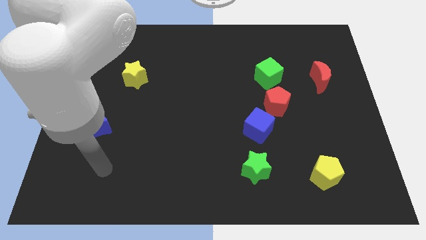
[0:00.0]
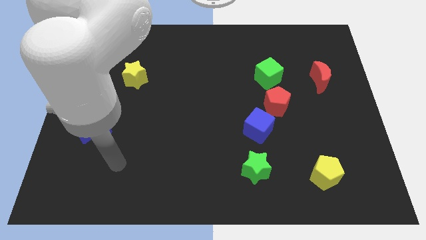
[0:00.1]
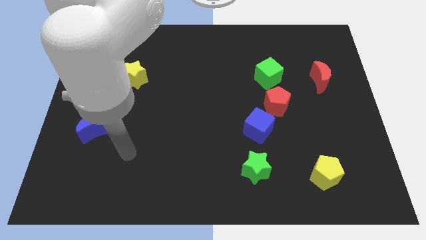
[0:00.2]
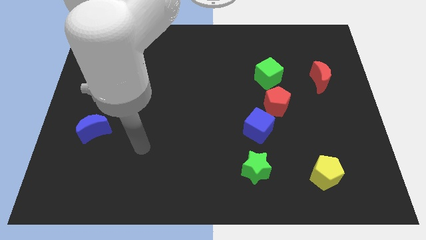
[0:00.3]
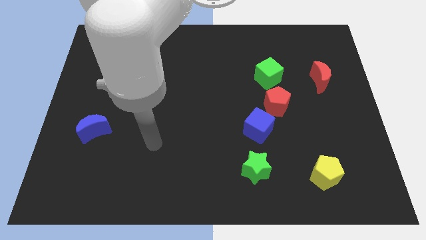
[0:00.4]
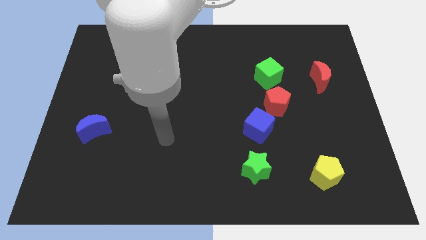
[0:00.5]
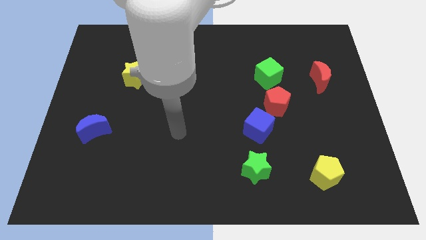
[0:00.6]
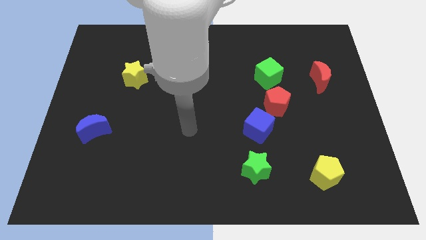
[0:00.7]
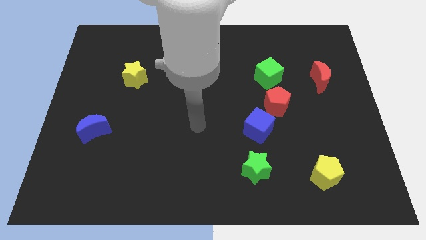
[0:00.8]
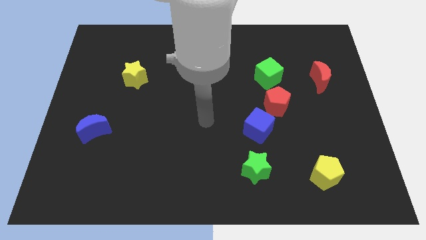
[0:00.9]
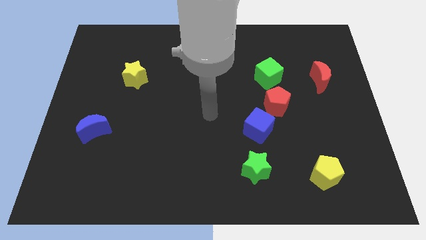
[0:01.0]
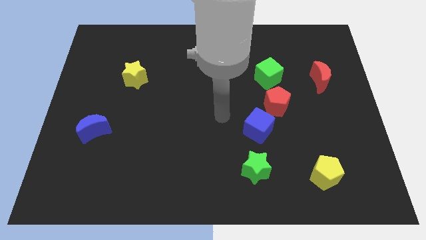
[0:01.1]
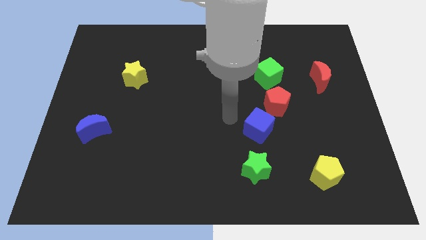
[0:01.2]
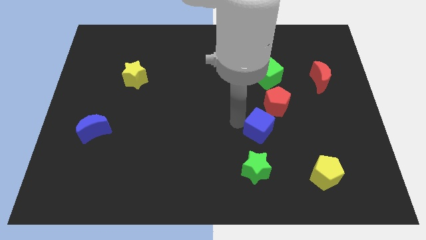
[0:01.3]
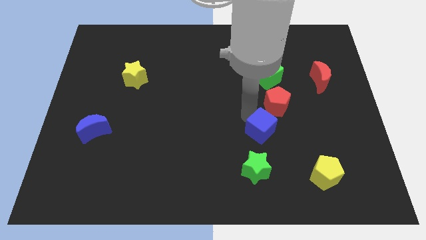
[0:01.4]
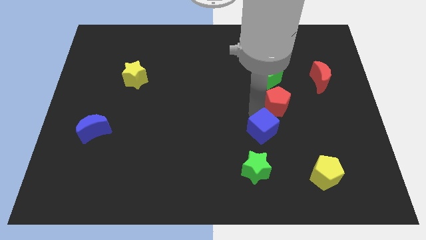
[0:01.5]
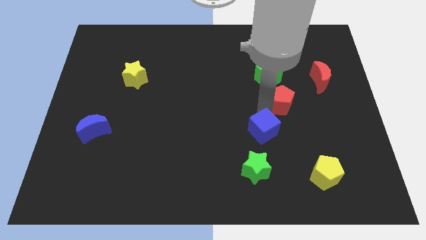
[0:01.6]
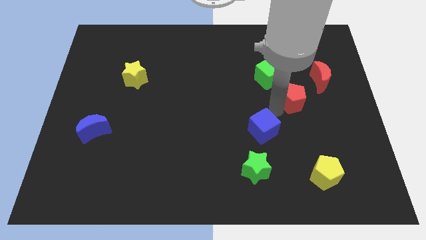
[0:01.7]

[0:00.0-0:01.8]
pull the blue cube apart from the red pentagon

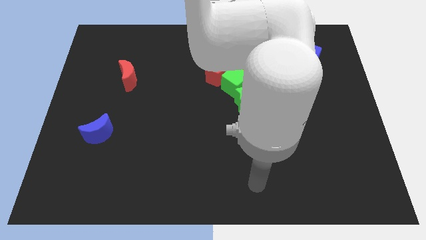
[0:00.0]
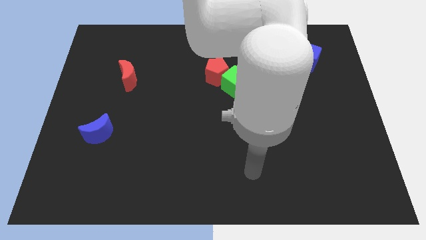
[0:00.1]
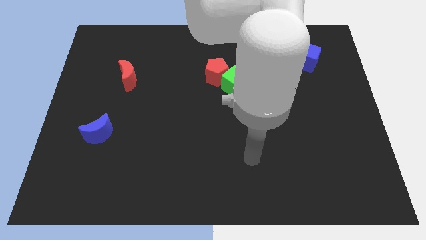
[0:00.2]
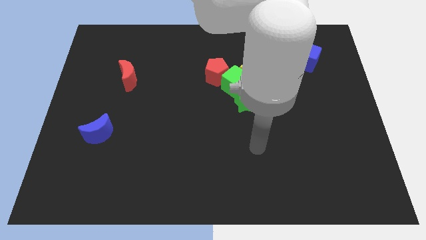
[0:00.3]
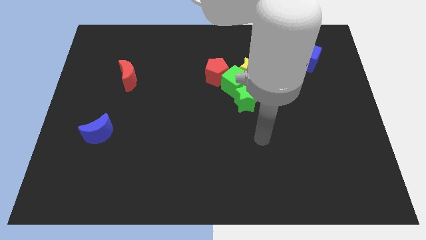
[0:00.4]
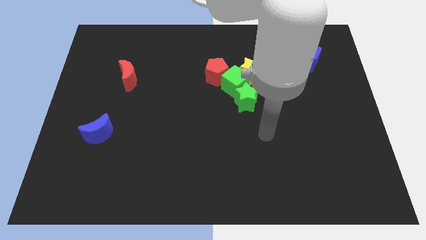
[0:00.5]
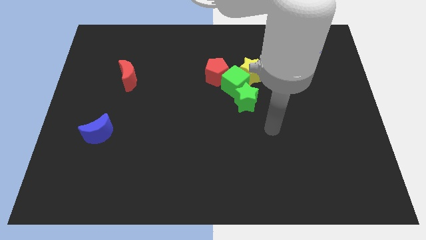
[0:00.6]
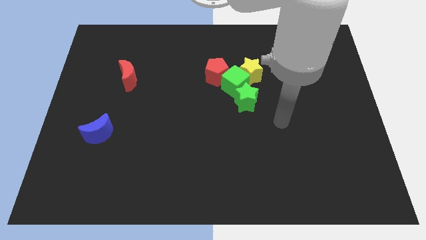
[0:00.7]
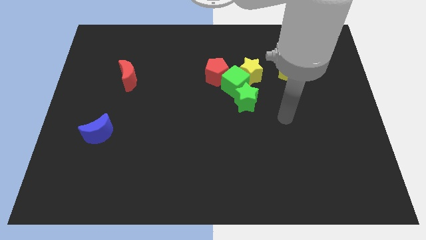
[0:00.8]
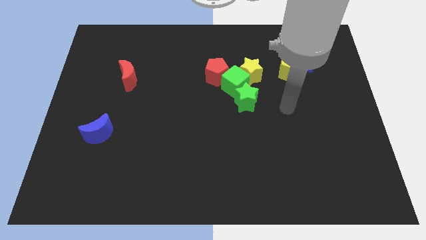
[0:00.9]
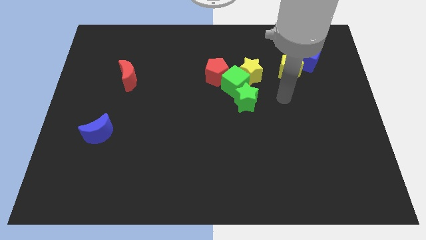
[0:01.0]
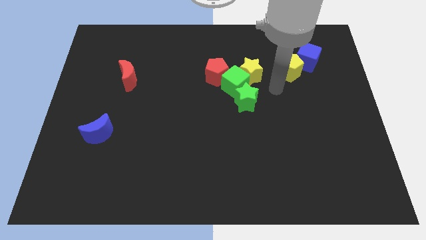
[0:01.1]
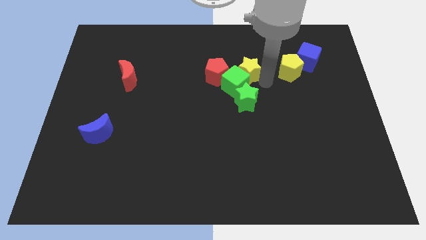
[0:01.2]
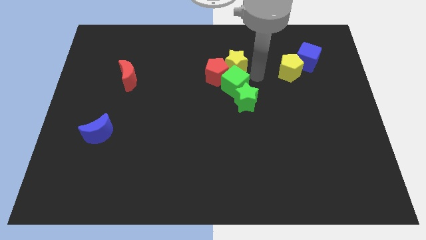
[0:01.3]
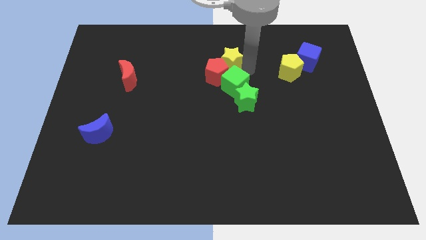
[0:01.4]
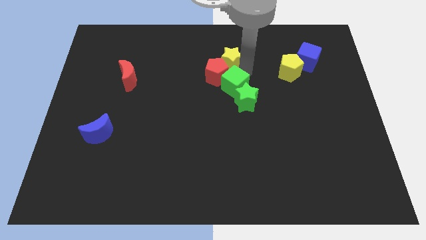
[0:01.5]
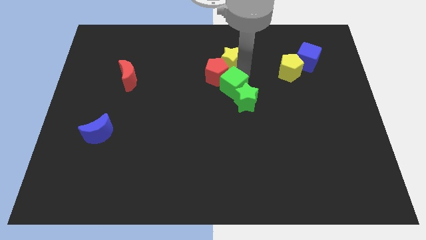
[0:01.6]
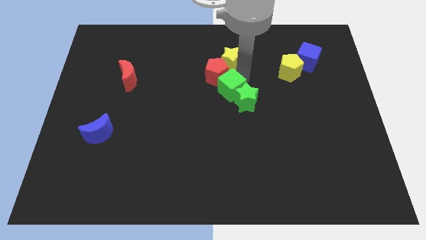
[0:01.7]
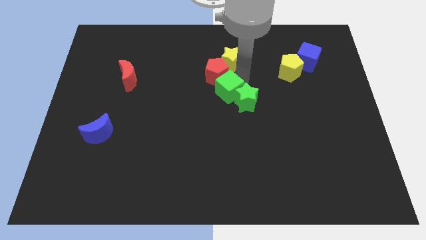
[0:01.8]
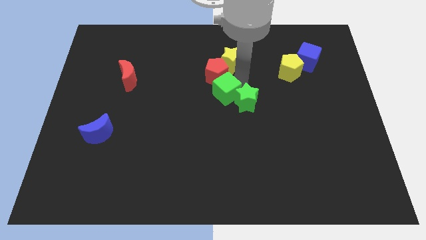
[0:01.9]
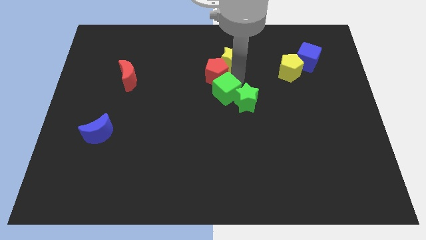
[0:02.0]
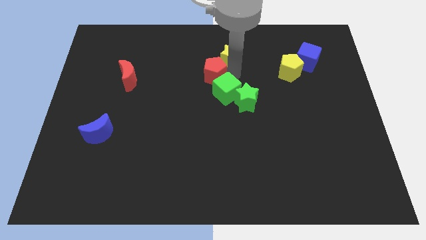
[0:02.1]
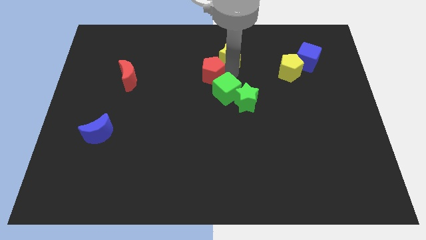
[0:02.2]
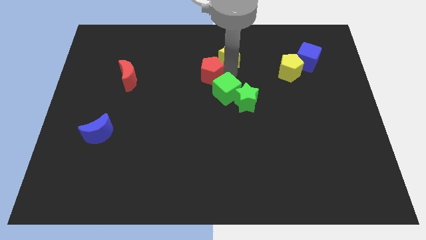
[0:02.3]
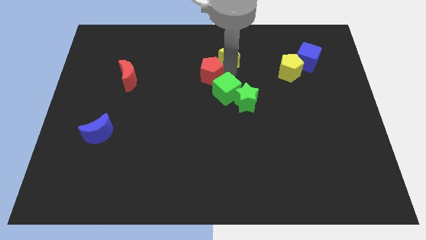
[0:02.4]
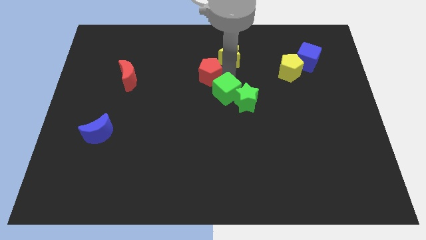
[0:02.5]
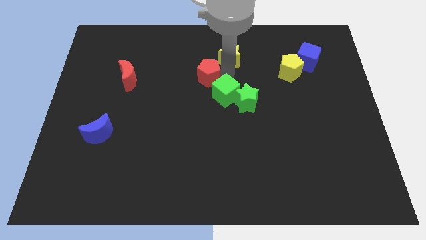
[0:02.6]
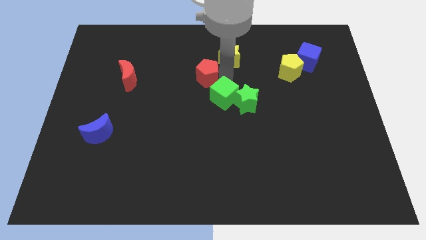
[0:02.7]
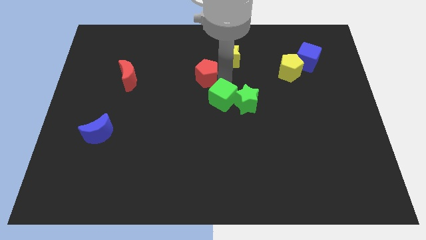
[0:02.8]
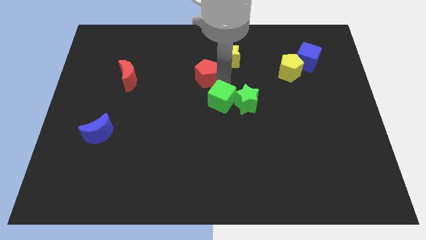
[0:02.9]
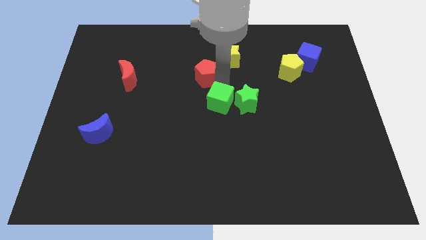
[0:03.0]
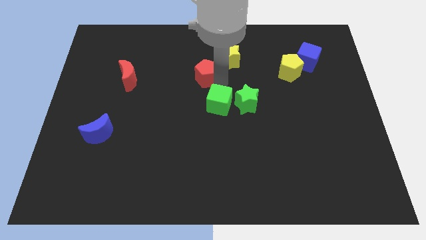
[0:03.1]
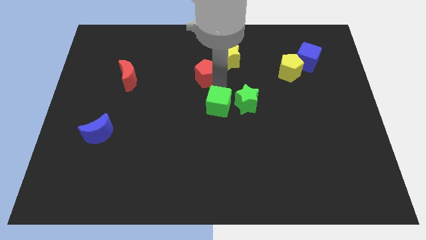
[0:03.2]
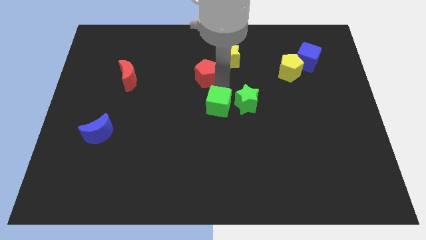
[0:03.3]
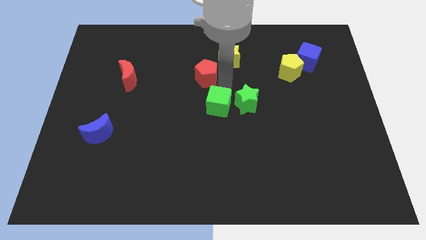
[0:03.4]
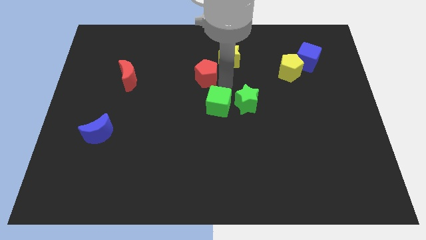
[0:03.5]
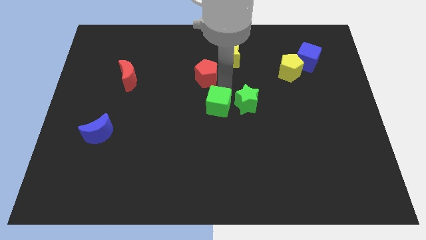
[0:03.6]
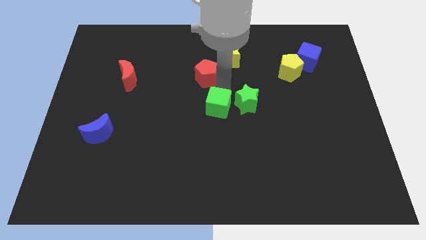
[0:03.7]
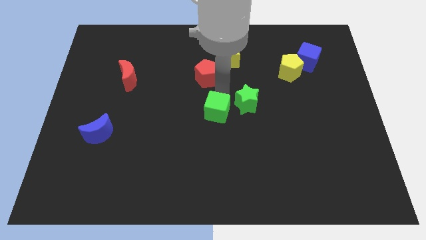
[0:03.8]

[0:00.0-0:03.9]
move the green cube away from the yellow star, green star, and red pentagon

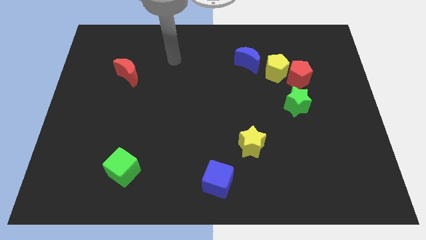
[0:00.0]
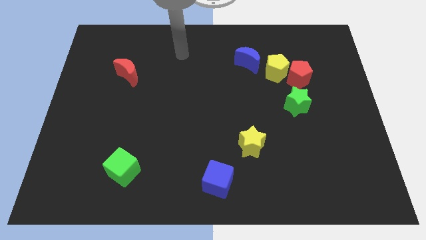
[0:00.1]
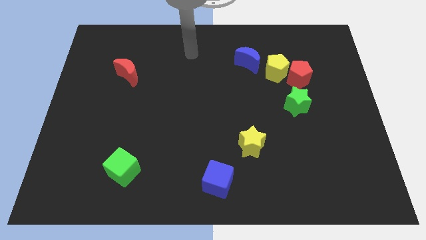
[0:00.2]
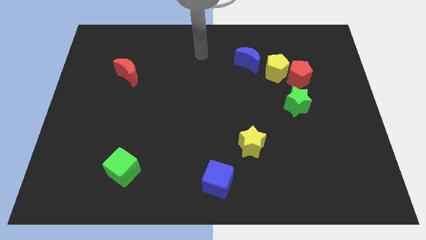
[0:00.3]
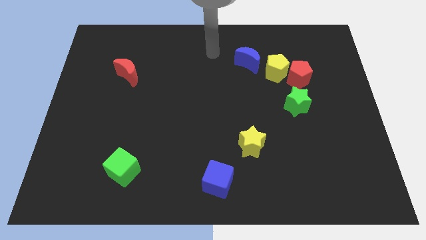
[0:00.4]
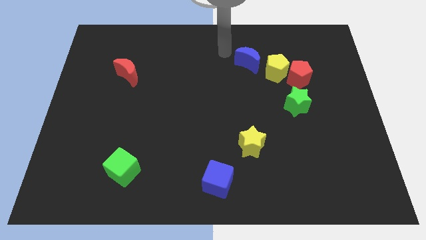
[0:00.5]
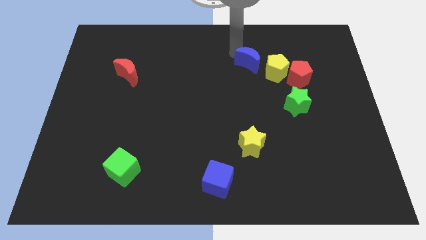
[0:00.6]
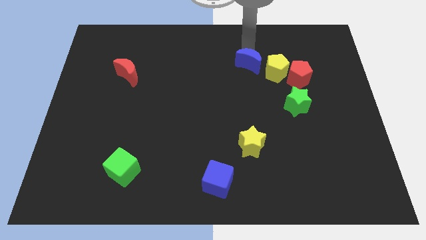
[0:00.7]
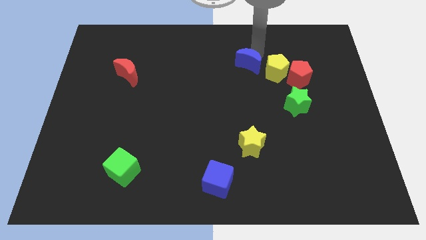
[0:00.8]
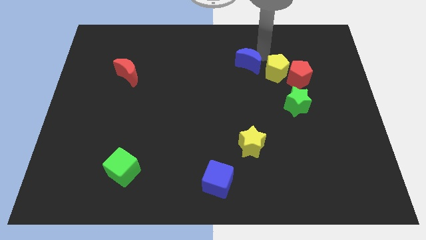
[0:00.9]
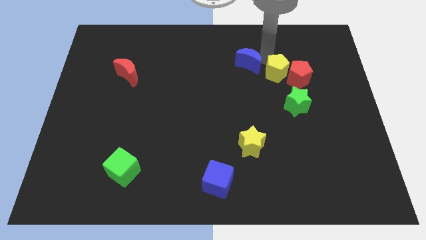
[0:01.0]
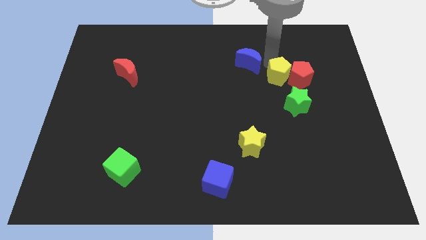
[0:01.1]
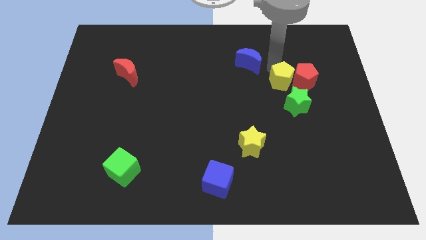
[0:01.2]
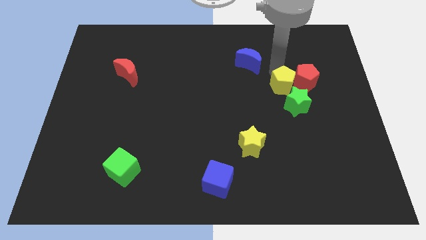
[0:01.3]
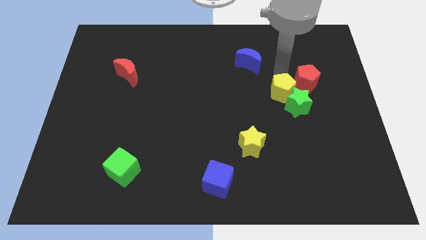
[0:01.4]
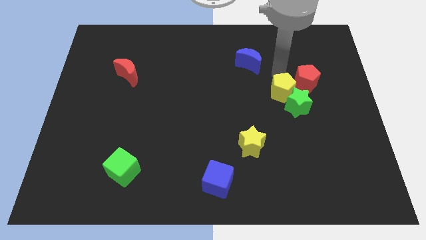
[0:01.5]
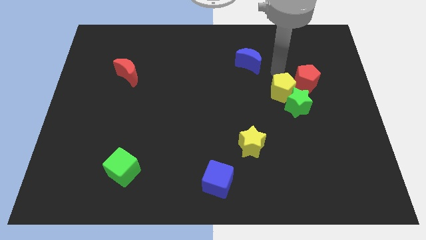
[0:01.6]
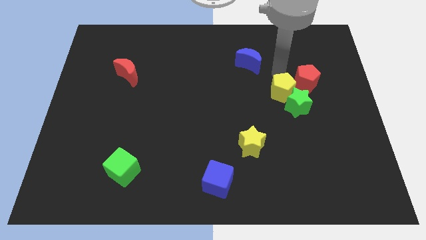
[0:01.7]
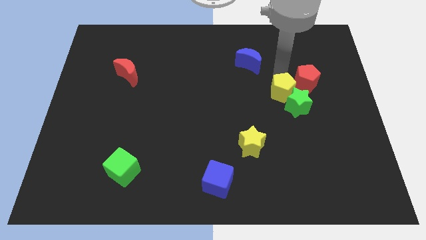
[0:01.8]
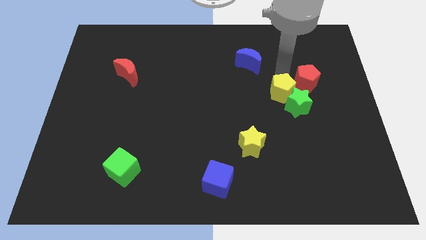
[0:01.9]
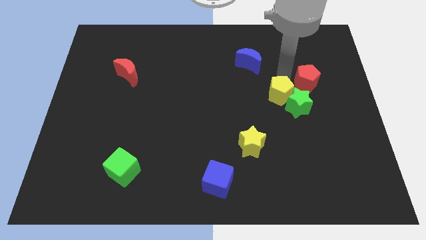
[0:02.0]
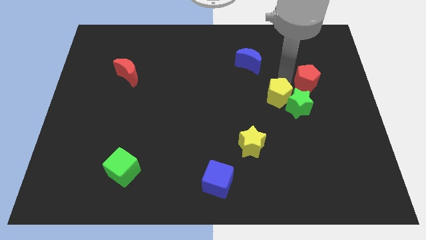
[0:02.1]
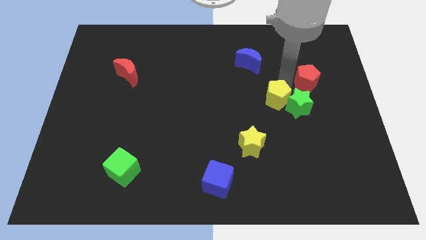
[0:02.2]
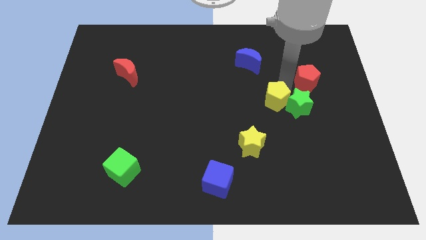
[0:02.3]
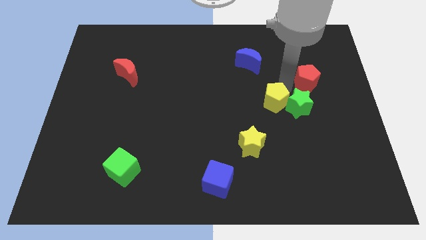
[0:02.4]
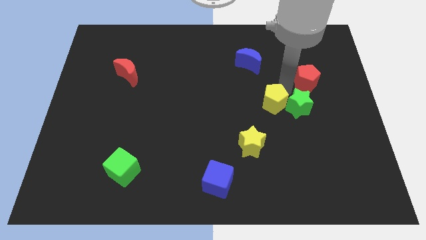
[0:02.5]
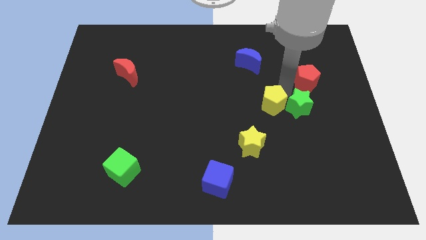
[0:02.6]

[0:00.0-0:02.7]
separate the yellow pentagon from the red pentagon and blue moon

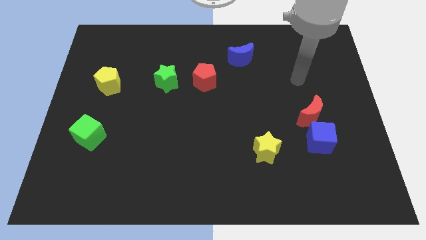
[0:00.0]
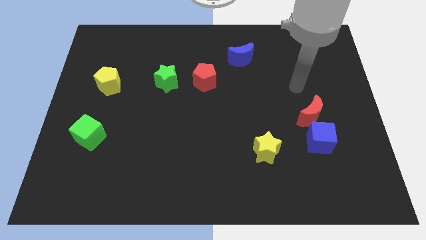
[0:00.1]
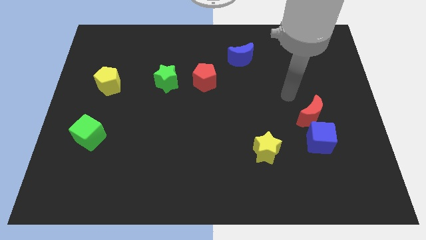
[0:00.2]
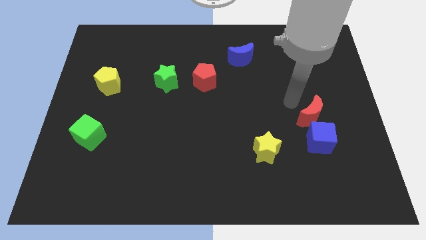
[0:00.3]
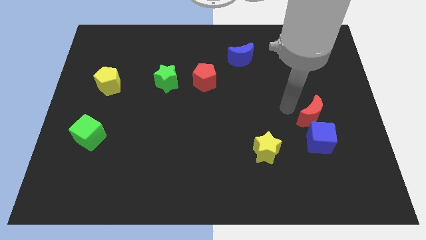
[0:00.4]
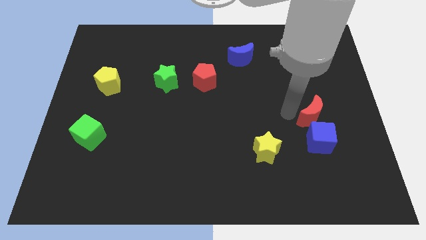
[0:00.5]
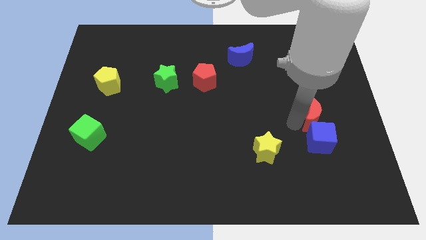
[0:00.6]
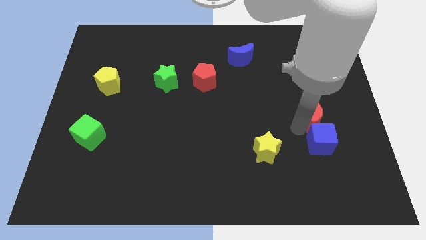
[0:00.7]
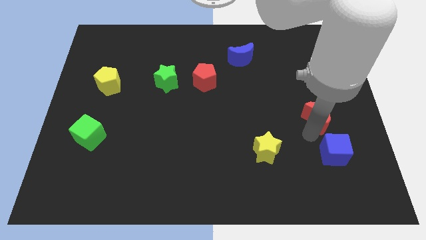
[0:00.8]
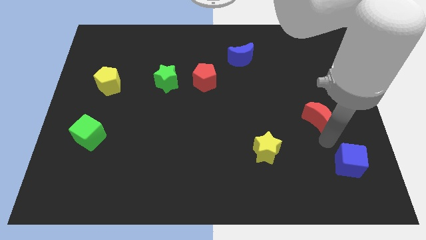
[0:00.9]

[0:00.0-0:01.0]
separate the red moon from the blue cube

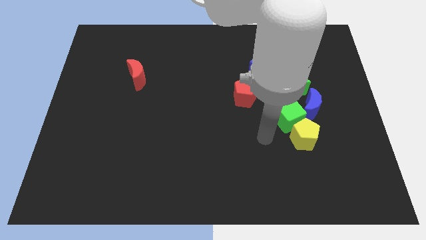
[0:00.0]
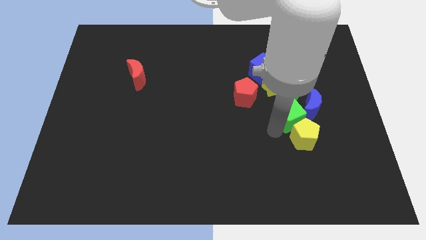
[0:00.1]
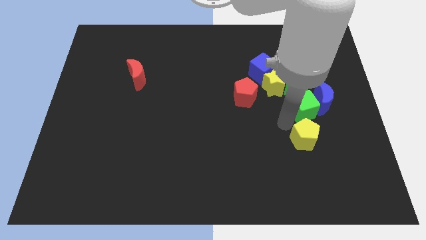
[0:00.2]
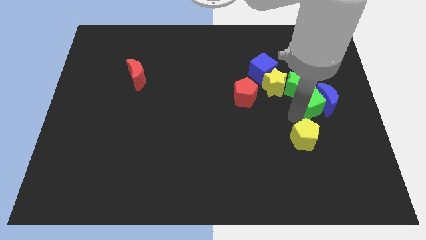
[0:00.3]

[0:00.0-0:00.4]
move the yellow pentagon away from the green cube and blue moon
